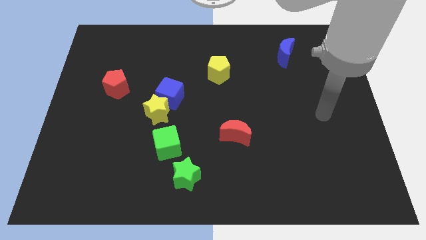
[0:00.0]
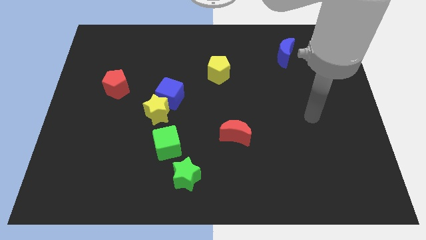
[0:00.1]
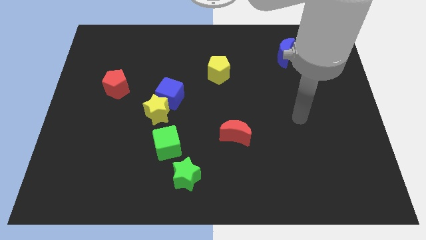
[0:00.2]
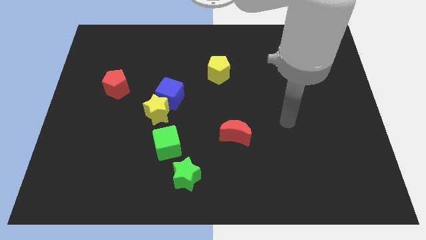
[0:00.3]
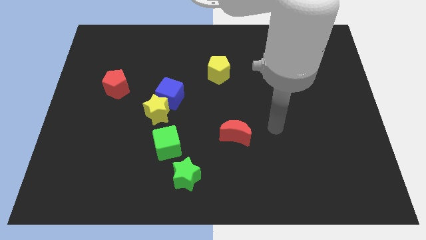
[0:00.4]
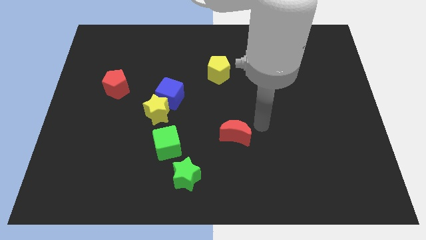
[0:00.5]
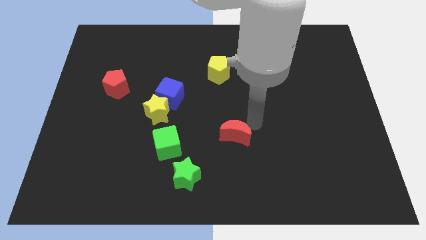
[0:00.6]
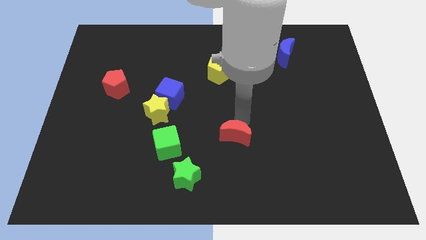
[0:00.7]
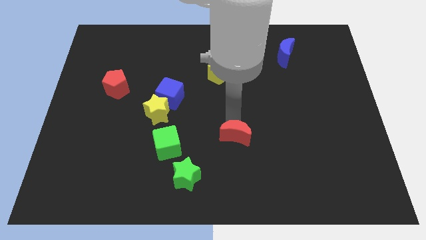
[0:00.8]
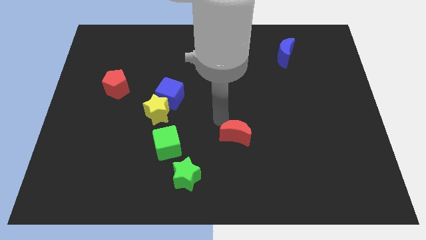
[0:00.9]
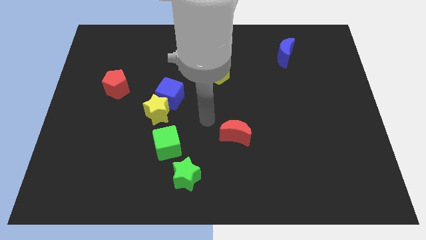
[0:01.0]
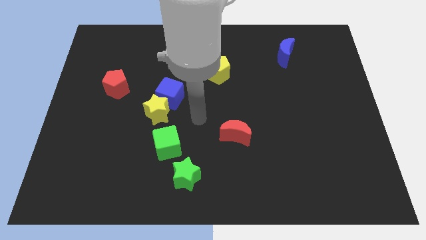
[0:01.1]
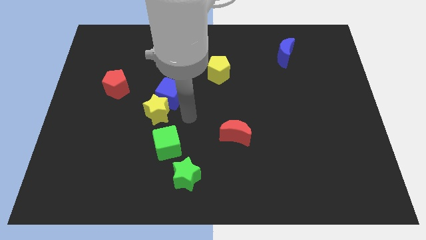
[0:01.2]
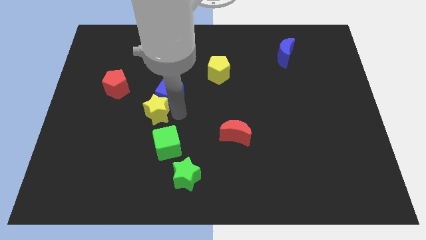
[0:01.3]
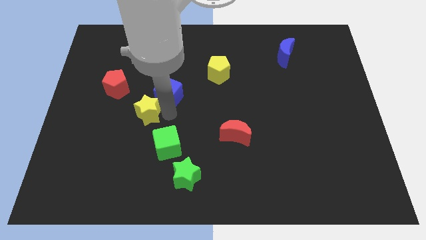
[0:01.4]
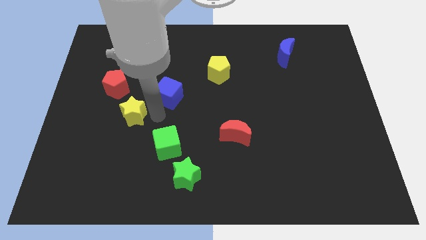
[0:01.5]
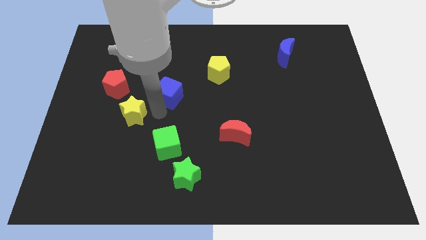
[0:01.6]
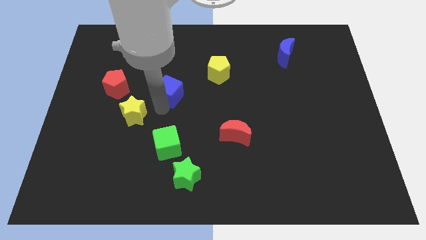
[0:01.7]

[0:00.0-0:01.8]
move the blue cube away from the yellow star

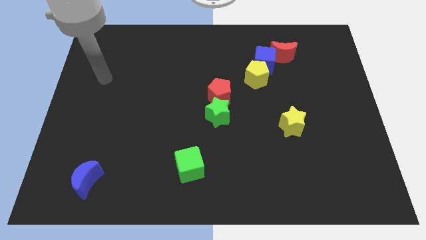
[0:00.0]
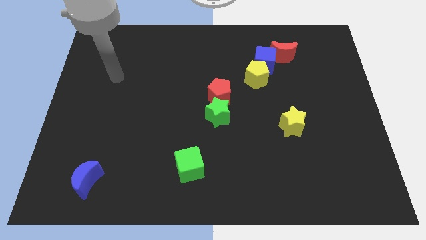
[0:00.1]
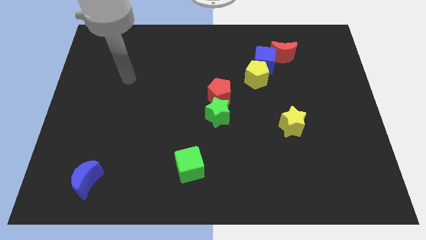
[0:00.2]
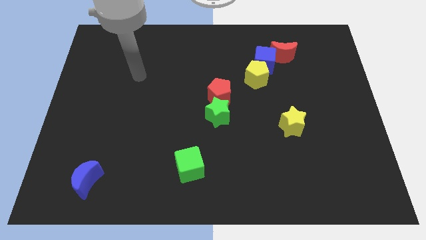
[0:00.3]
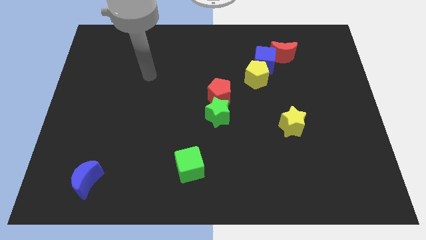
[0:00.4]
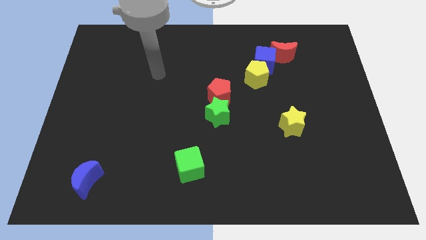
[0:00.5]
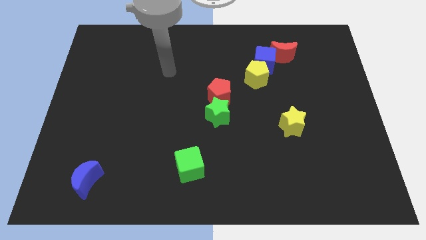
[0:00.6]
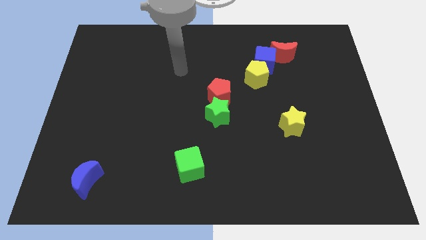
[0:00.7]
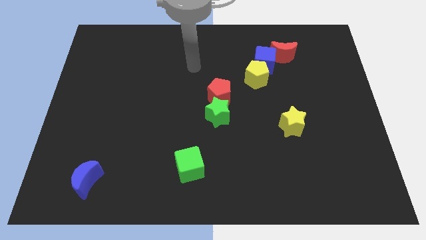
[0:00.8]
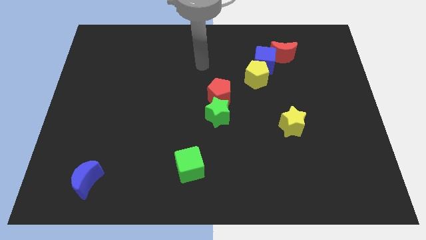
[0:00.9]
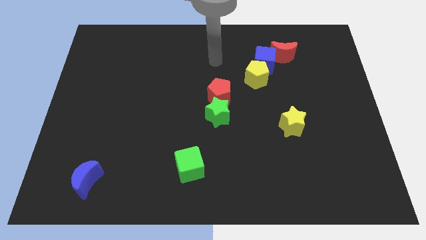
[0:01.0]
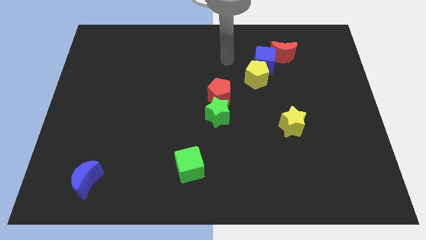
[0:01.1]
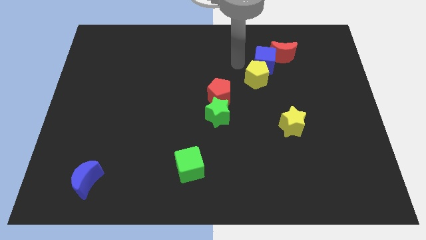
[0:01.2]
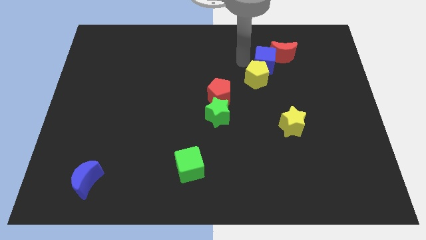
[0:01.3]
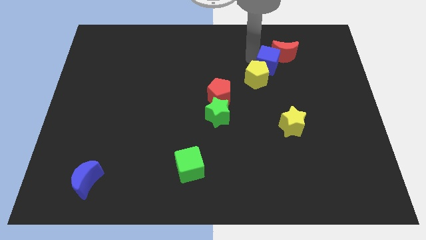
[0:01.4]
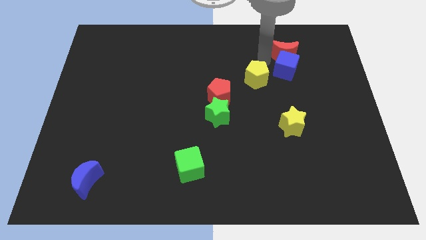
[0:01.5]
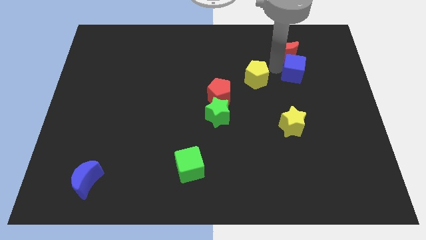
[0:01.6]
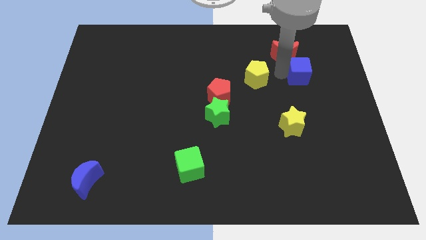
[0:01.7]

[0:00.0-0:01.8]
pull the yellow pentagon apart from the blue cube

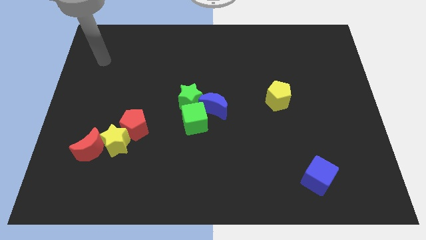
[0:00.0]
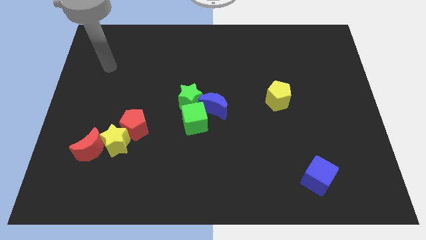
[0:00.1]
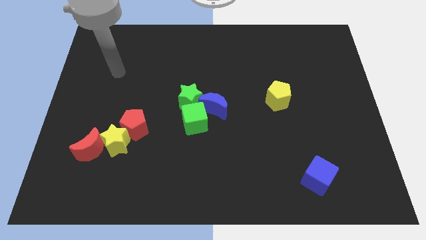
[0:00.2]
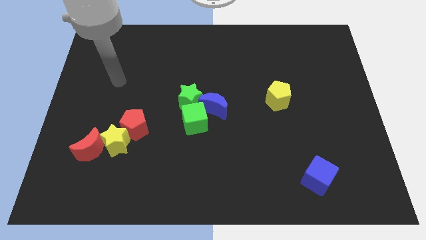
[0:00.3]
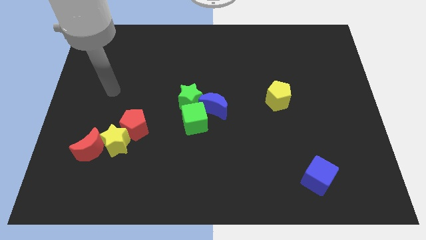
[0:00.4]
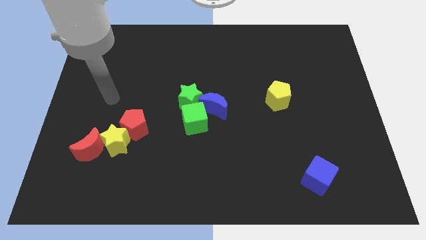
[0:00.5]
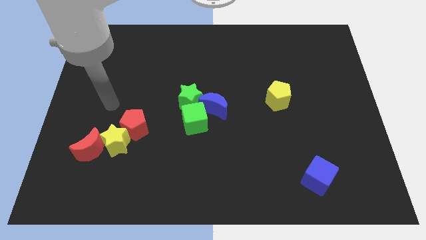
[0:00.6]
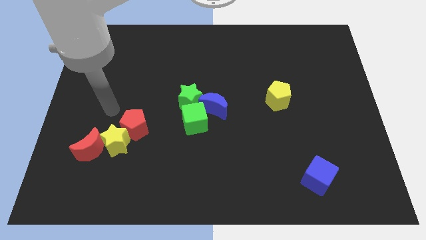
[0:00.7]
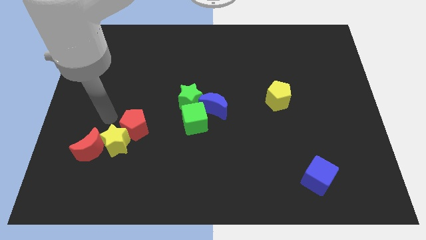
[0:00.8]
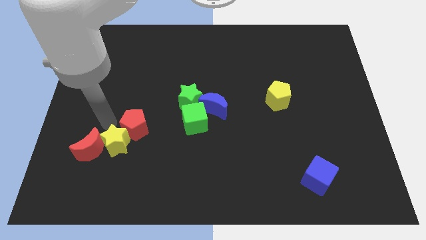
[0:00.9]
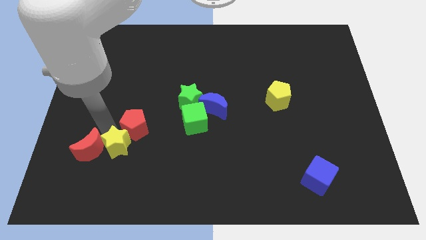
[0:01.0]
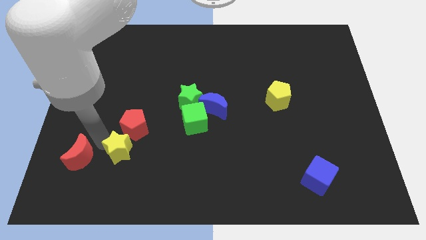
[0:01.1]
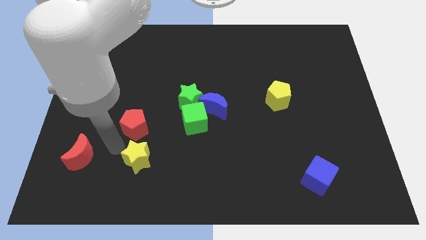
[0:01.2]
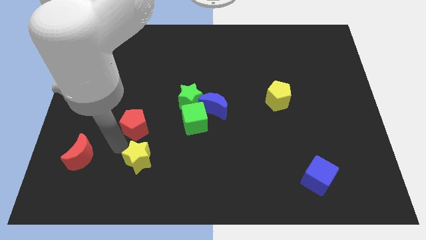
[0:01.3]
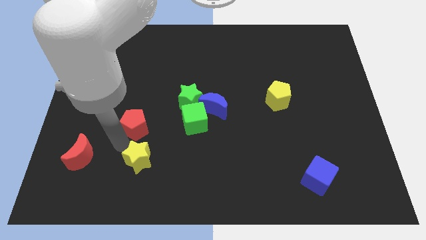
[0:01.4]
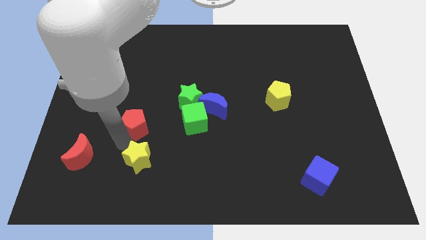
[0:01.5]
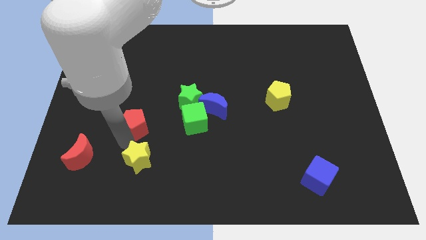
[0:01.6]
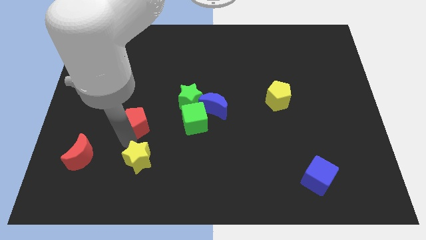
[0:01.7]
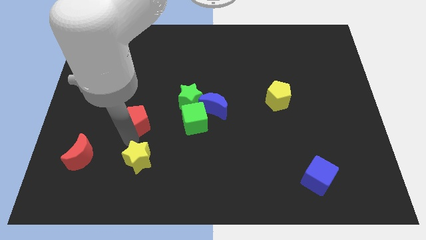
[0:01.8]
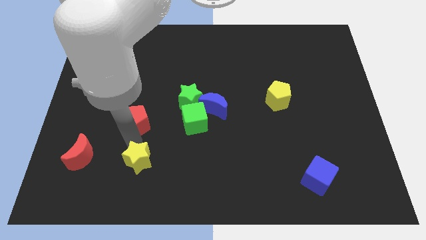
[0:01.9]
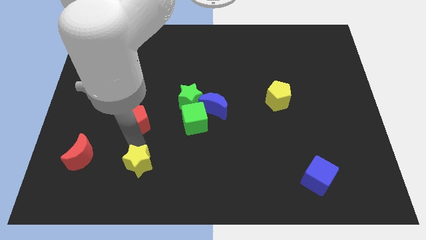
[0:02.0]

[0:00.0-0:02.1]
move the red pentagon away from the yellow star

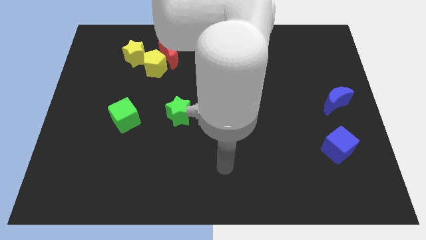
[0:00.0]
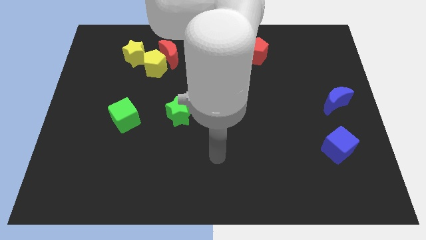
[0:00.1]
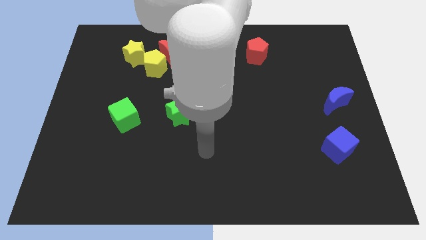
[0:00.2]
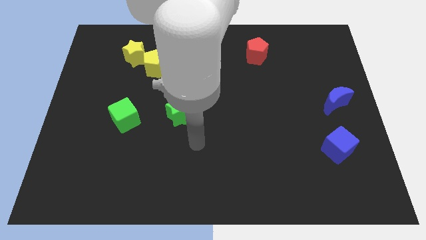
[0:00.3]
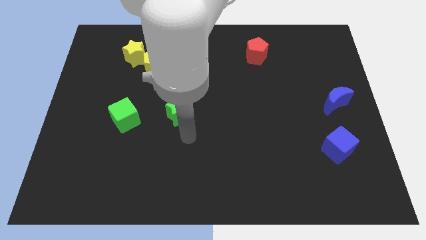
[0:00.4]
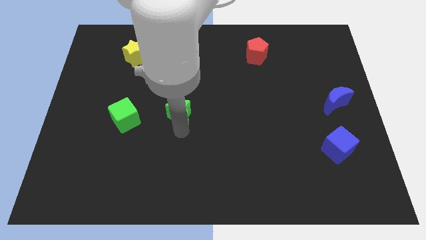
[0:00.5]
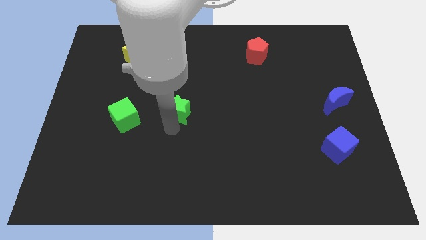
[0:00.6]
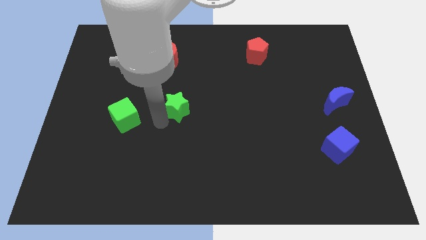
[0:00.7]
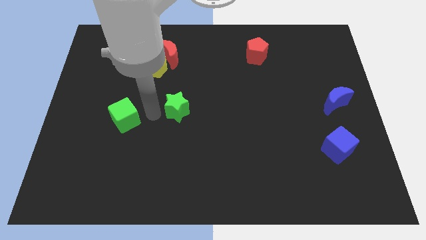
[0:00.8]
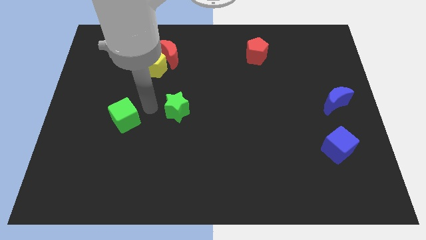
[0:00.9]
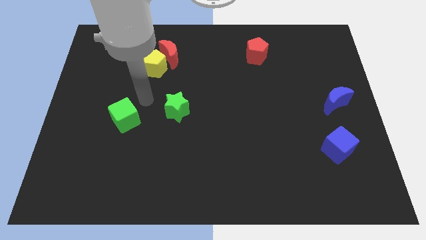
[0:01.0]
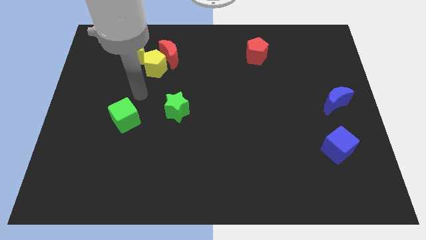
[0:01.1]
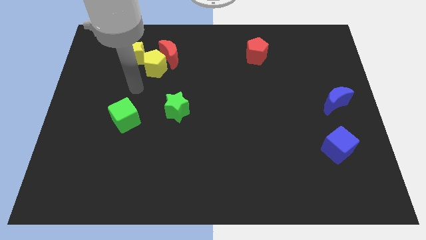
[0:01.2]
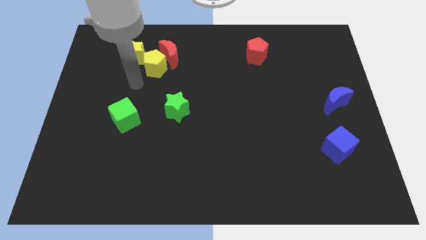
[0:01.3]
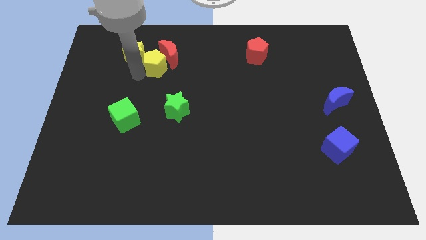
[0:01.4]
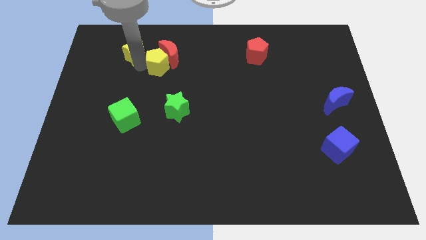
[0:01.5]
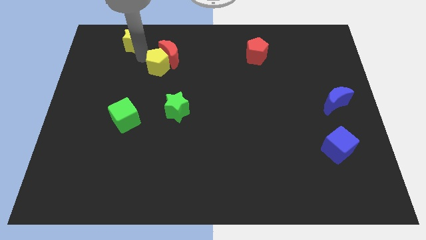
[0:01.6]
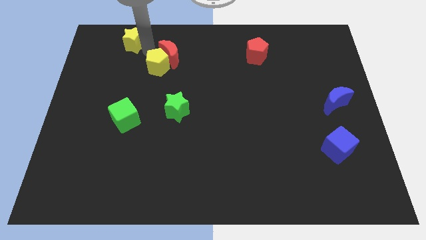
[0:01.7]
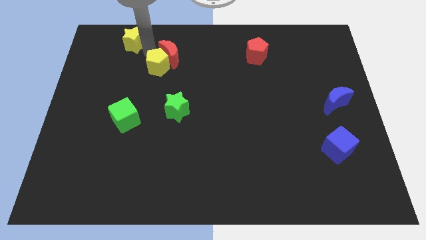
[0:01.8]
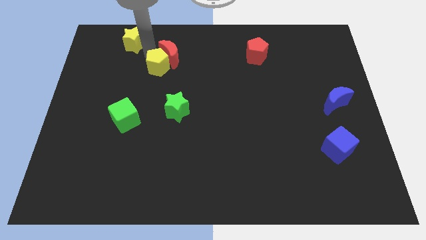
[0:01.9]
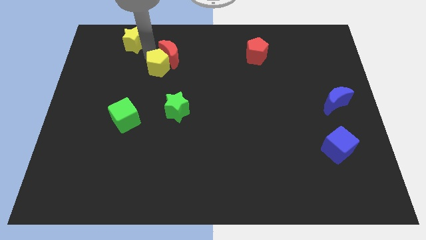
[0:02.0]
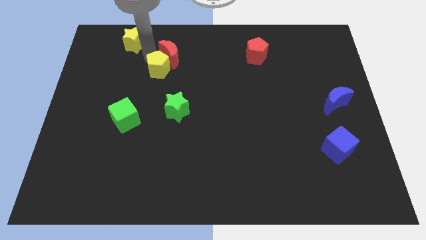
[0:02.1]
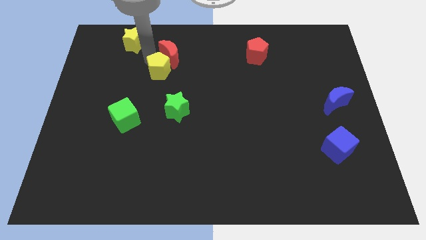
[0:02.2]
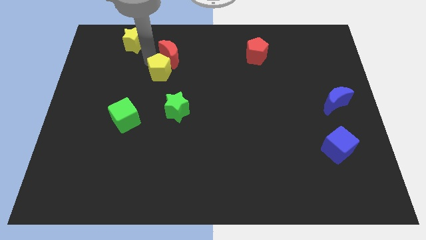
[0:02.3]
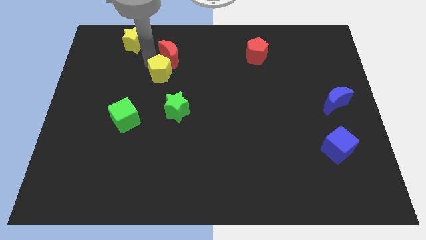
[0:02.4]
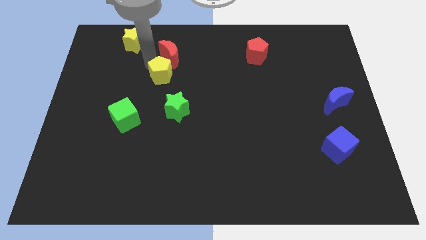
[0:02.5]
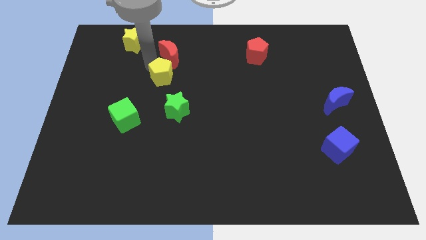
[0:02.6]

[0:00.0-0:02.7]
pull the yellow pentagon apart from the red moon and yellow star

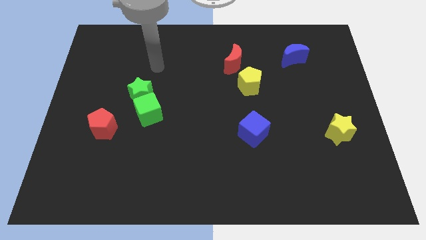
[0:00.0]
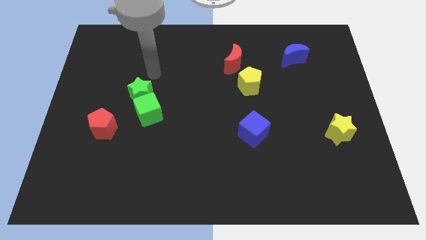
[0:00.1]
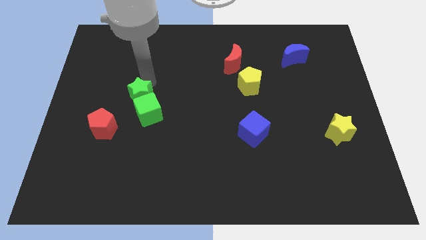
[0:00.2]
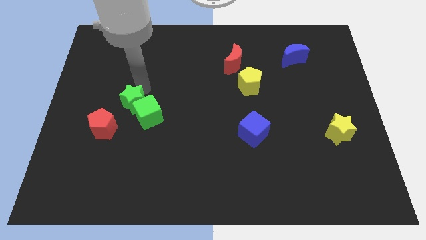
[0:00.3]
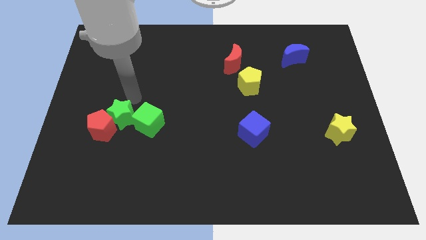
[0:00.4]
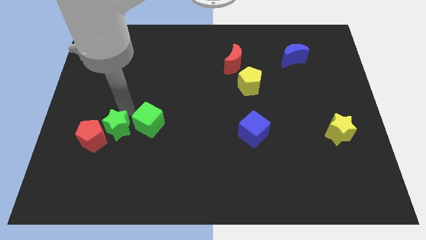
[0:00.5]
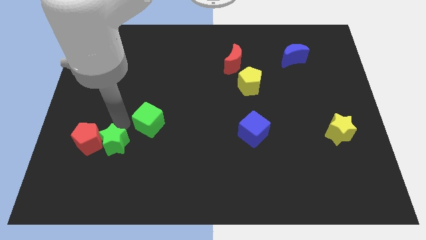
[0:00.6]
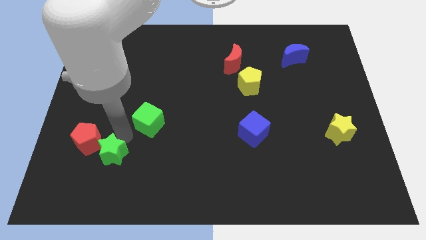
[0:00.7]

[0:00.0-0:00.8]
move the green cube away from the green star

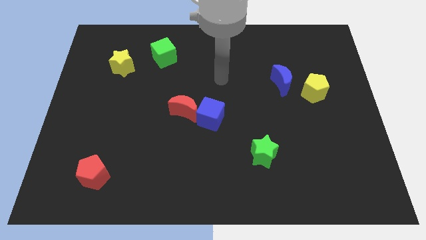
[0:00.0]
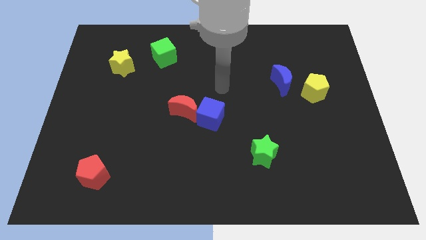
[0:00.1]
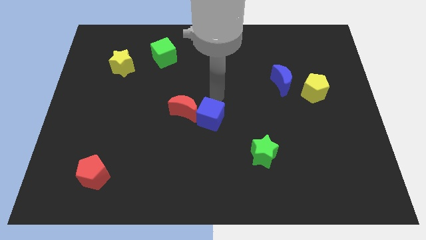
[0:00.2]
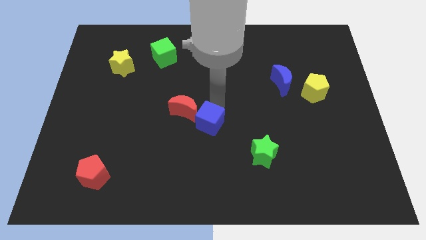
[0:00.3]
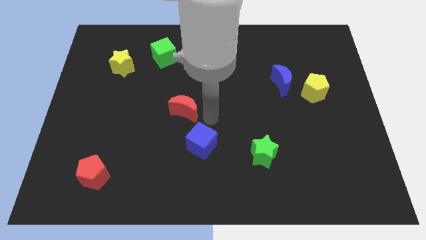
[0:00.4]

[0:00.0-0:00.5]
pull the red moon apart from the blue cube
